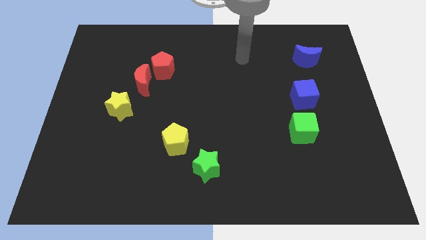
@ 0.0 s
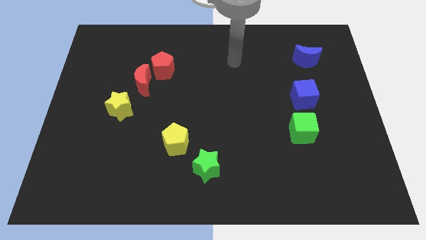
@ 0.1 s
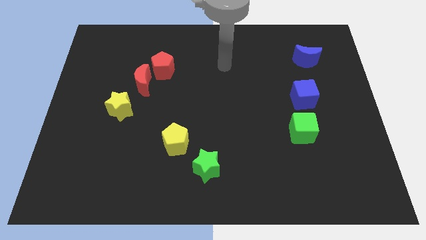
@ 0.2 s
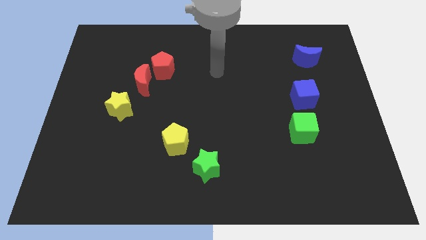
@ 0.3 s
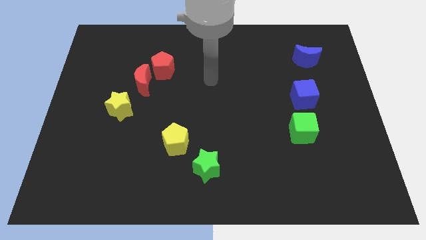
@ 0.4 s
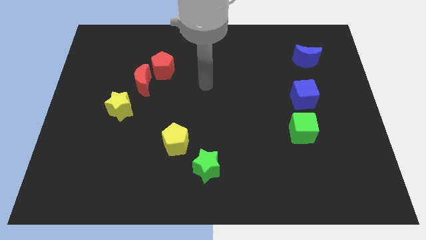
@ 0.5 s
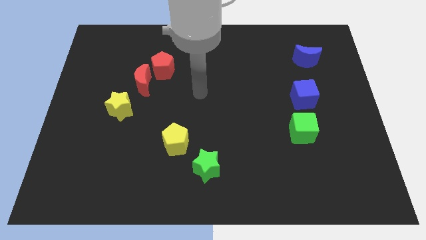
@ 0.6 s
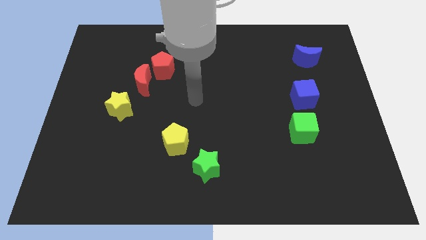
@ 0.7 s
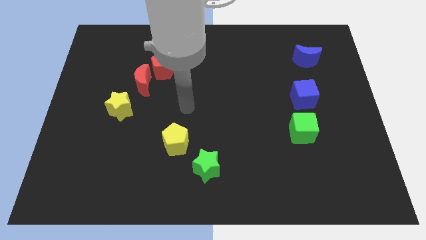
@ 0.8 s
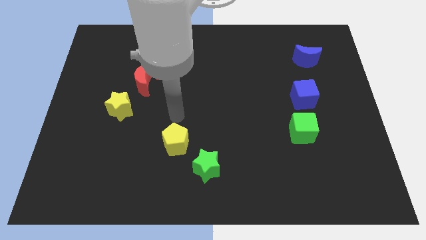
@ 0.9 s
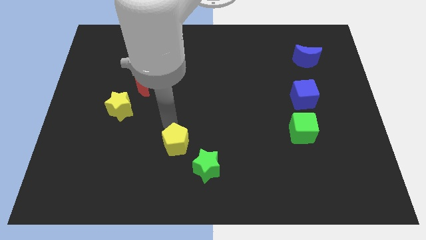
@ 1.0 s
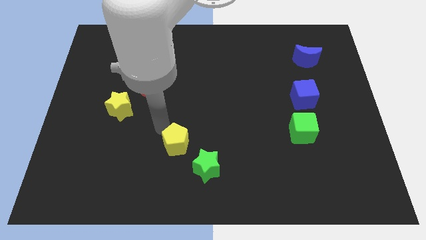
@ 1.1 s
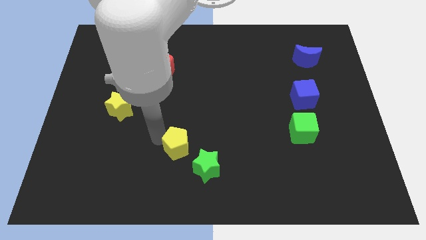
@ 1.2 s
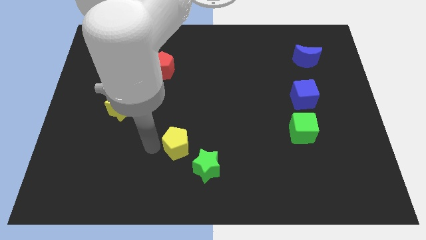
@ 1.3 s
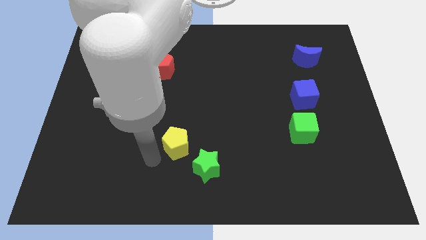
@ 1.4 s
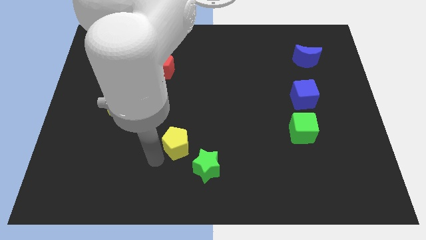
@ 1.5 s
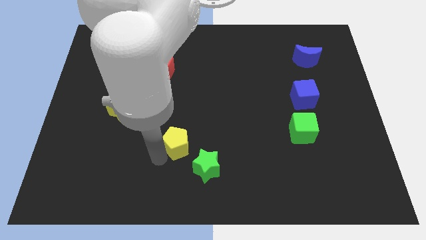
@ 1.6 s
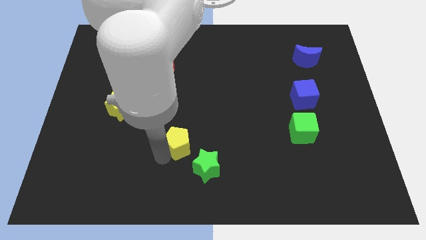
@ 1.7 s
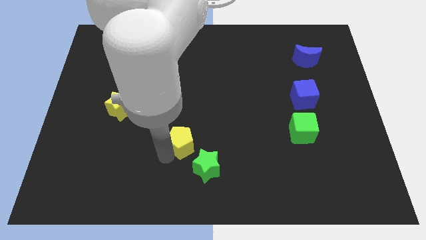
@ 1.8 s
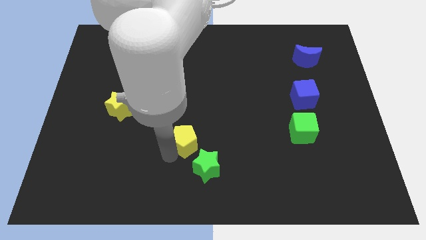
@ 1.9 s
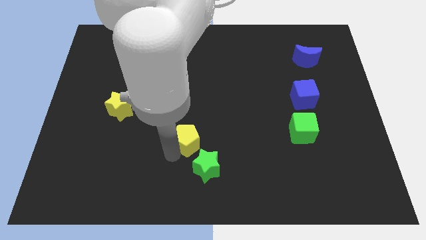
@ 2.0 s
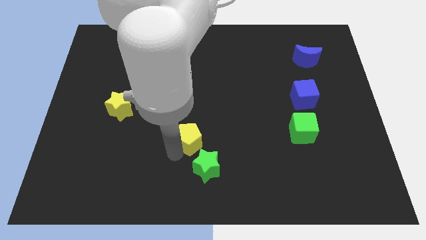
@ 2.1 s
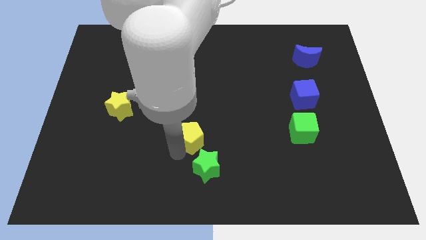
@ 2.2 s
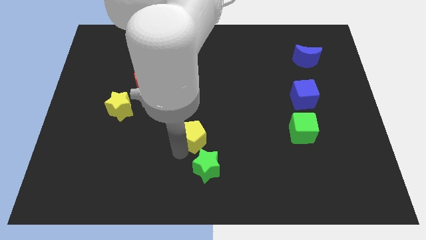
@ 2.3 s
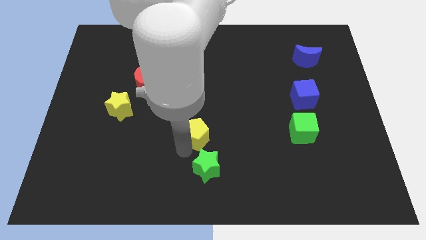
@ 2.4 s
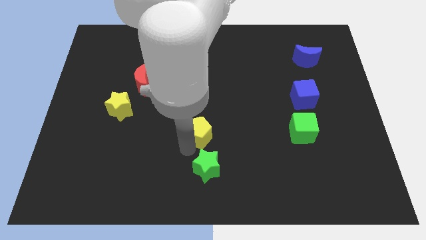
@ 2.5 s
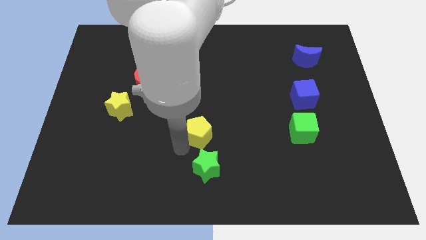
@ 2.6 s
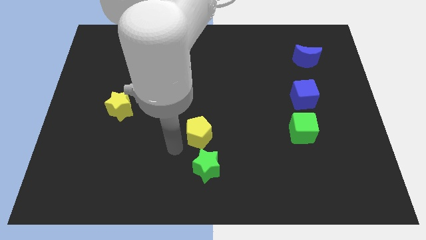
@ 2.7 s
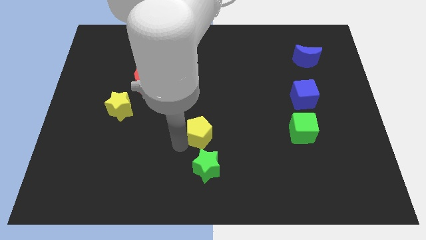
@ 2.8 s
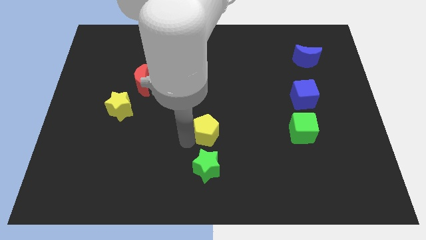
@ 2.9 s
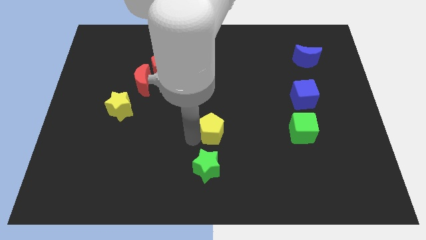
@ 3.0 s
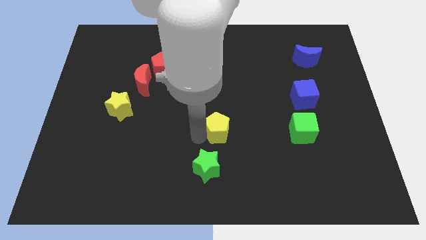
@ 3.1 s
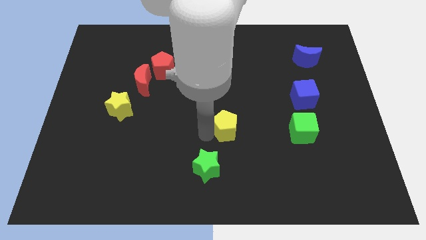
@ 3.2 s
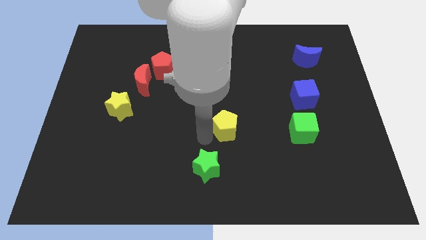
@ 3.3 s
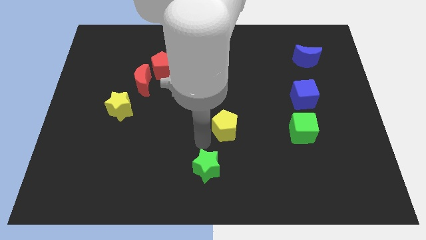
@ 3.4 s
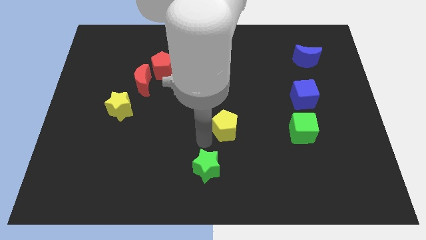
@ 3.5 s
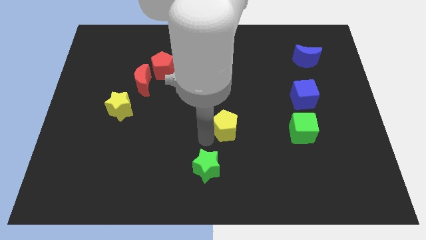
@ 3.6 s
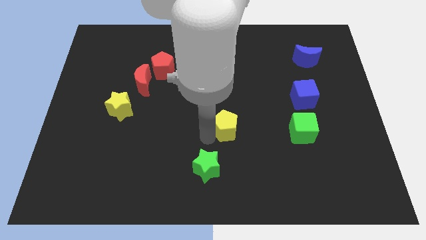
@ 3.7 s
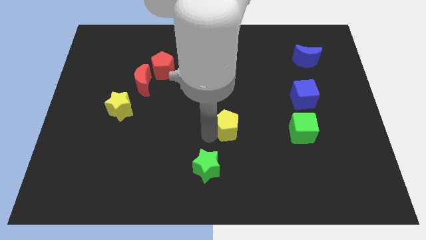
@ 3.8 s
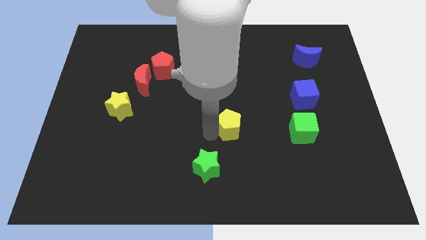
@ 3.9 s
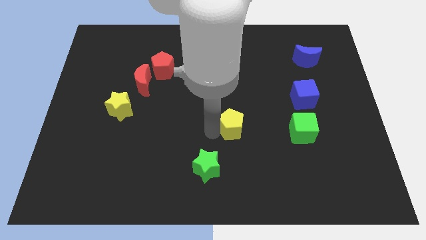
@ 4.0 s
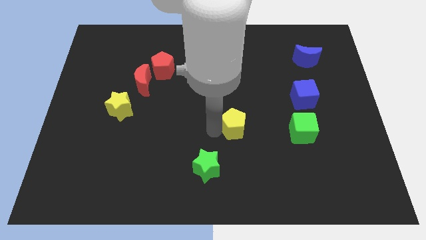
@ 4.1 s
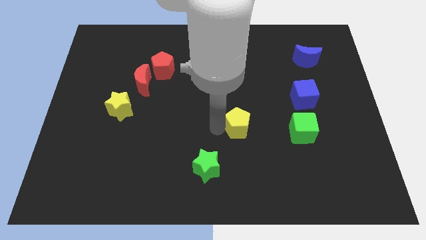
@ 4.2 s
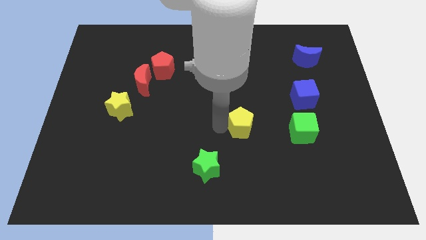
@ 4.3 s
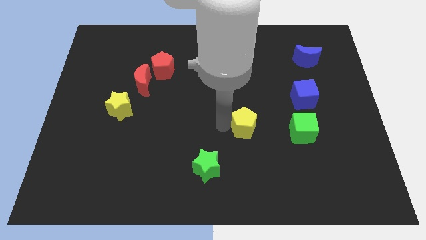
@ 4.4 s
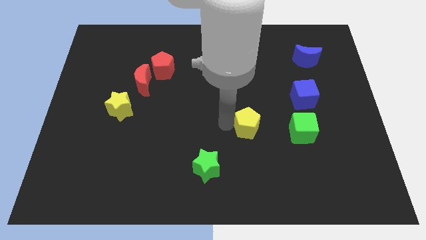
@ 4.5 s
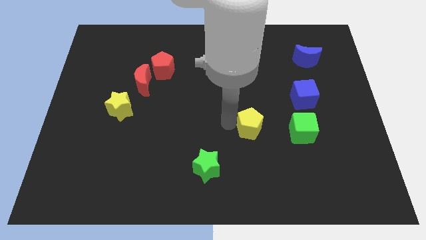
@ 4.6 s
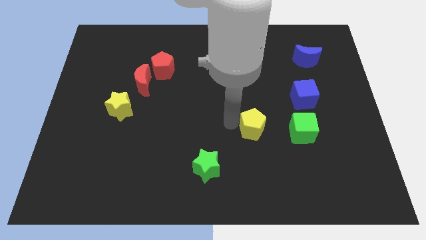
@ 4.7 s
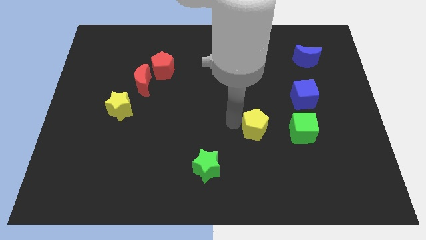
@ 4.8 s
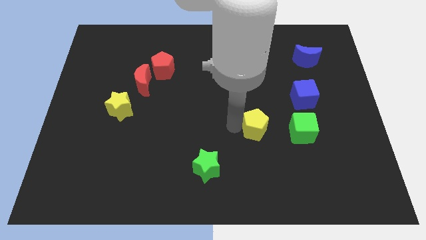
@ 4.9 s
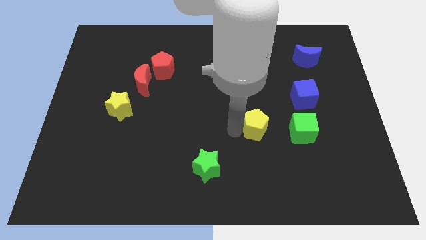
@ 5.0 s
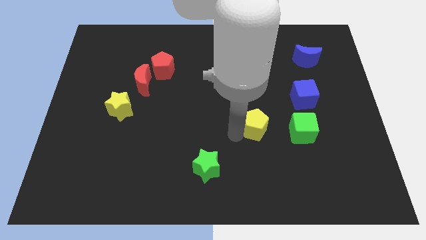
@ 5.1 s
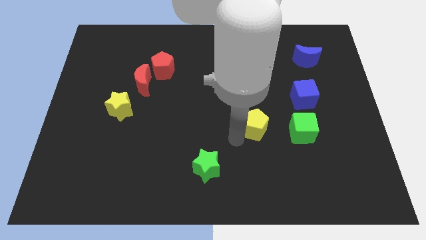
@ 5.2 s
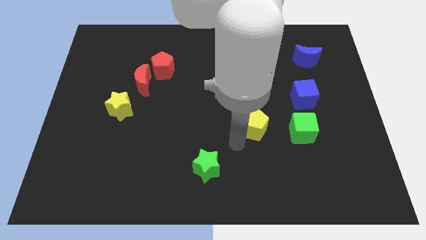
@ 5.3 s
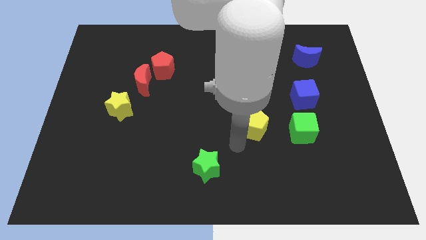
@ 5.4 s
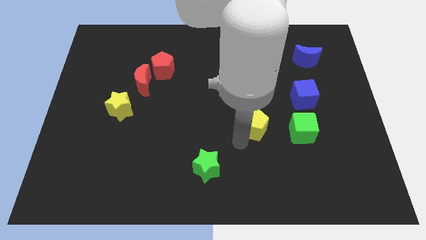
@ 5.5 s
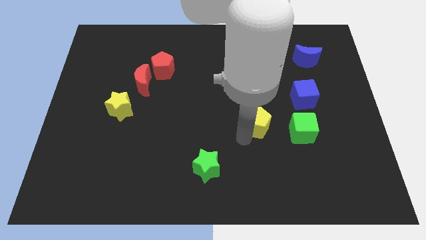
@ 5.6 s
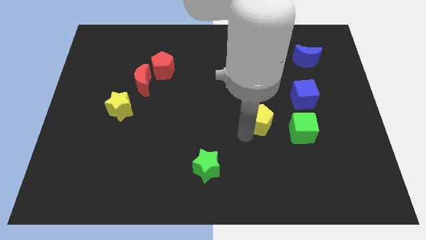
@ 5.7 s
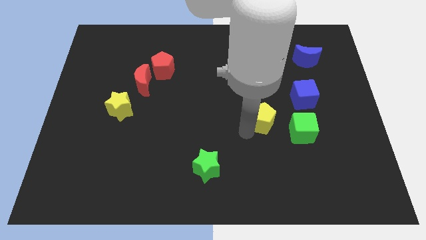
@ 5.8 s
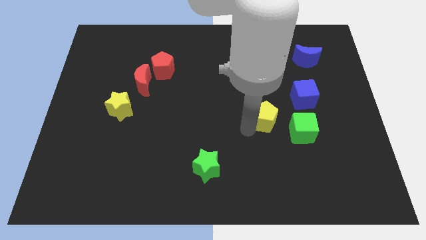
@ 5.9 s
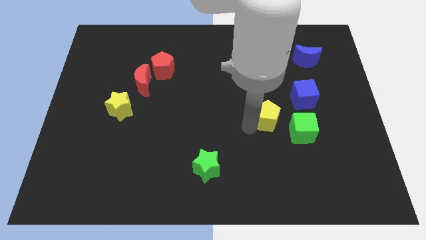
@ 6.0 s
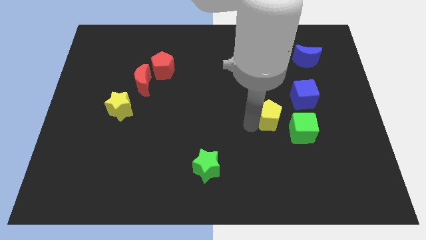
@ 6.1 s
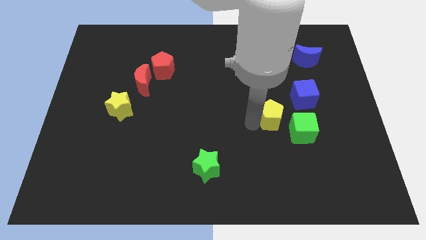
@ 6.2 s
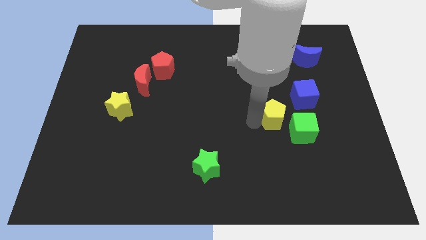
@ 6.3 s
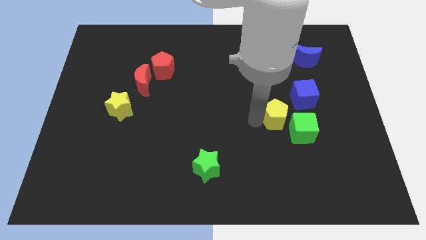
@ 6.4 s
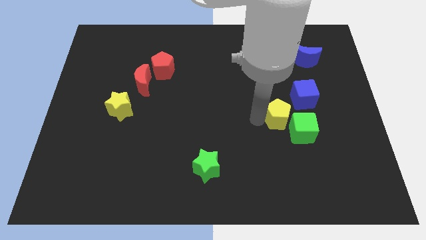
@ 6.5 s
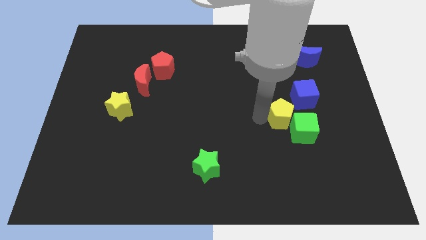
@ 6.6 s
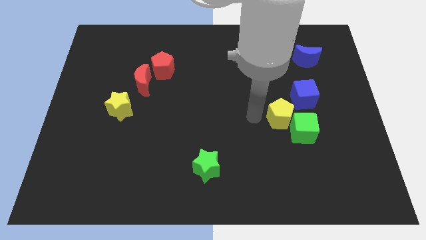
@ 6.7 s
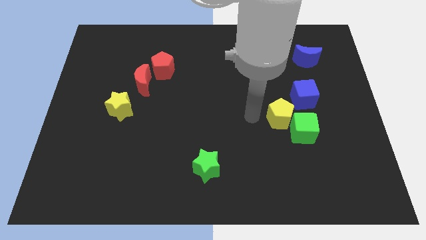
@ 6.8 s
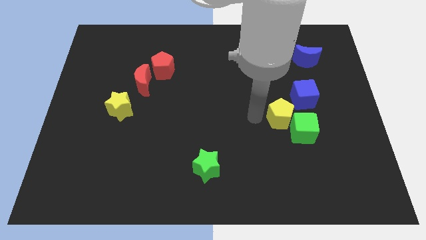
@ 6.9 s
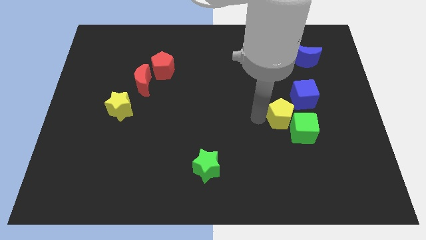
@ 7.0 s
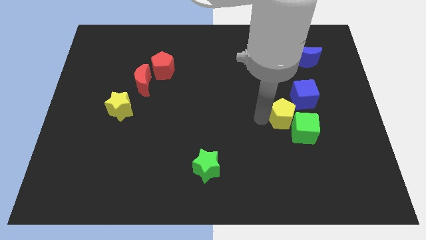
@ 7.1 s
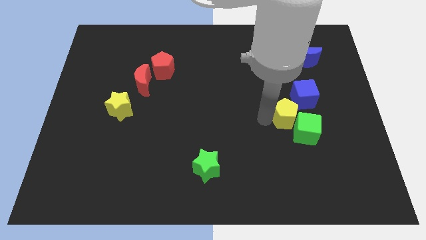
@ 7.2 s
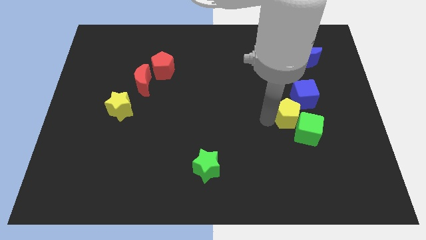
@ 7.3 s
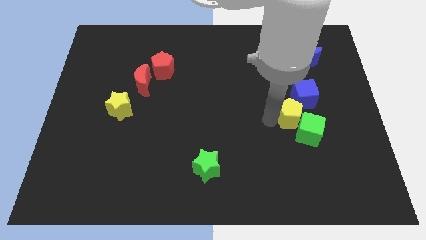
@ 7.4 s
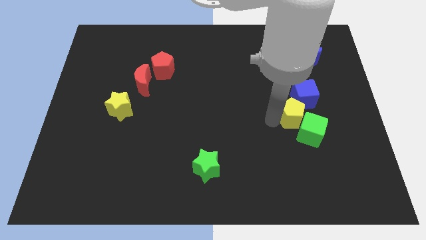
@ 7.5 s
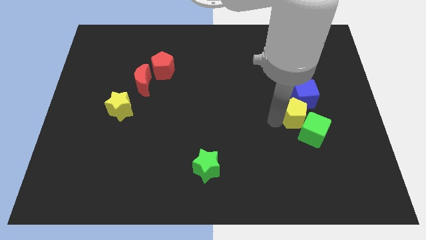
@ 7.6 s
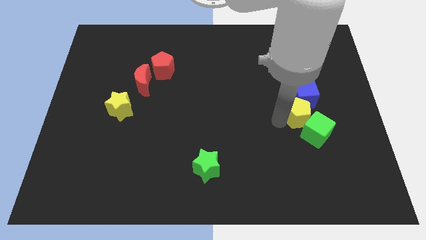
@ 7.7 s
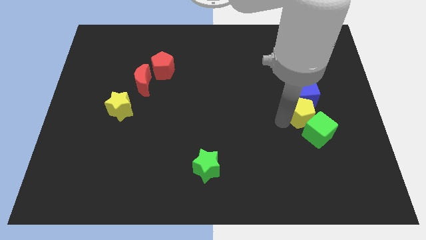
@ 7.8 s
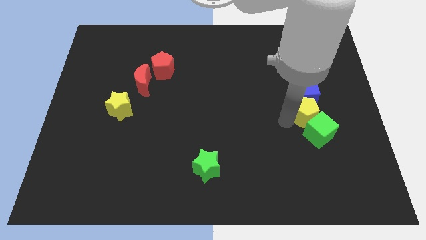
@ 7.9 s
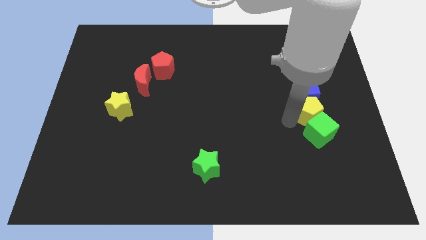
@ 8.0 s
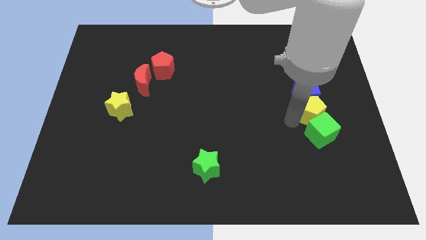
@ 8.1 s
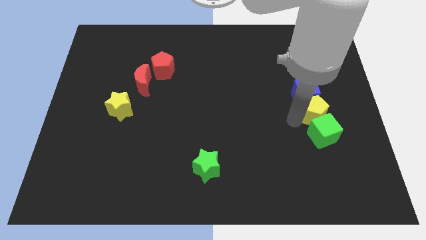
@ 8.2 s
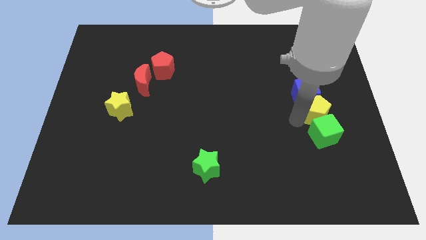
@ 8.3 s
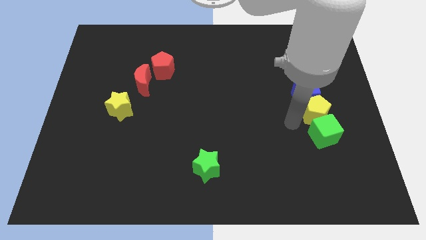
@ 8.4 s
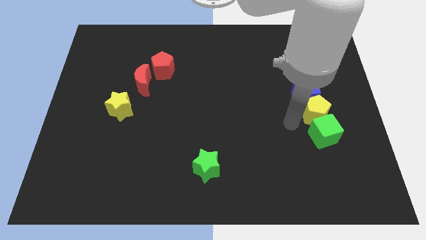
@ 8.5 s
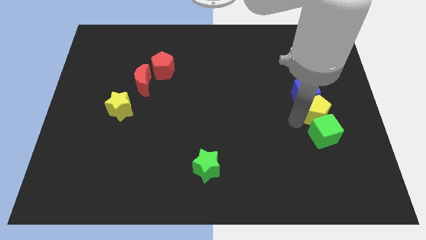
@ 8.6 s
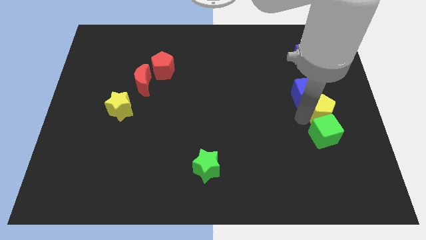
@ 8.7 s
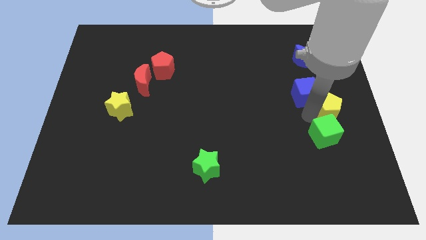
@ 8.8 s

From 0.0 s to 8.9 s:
move the yellow pentagon to the right side
